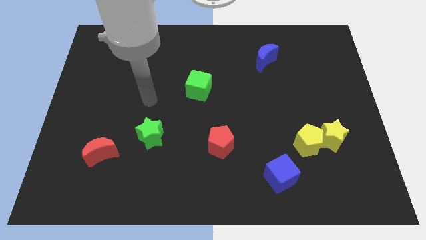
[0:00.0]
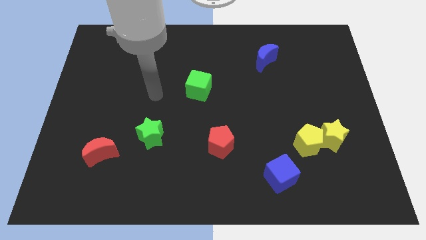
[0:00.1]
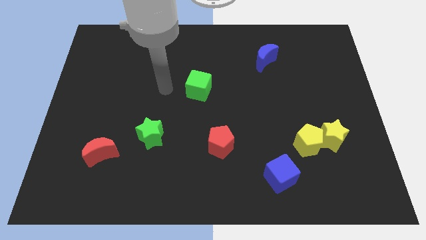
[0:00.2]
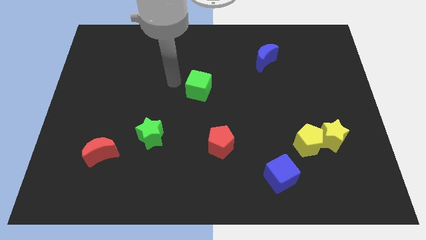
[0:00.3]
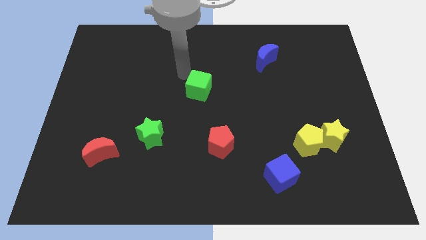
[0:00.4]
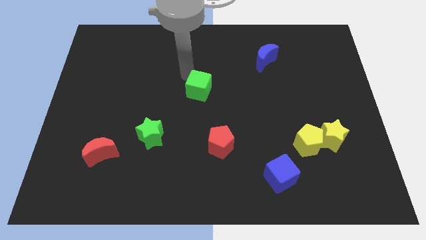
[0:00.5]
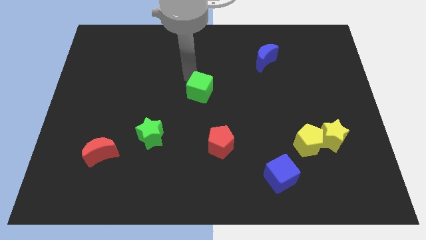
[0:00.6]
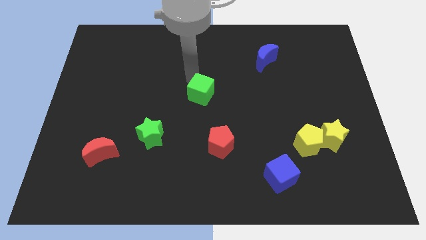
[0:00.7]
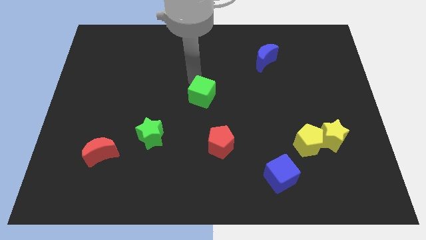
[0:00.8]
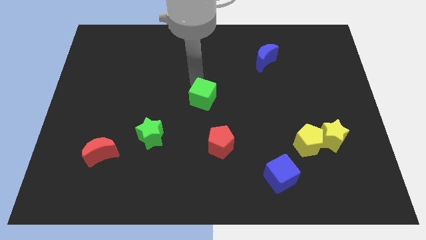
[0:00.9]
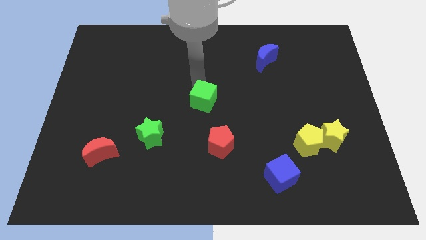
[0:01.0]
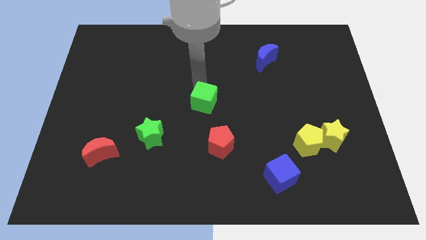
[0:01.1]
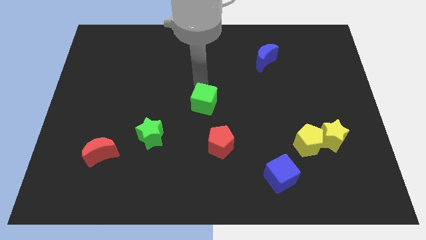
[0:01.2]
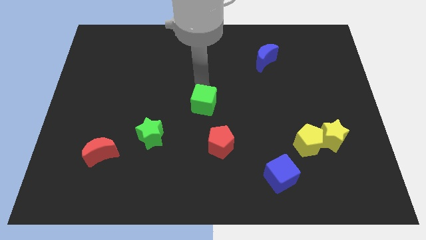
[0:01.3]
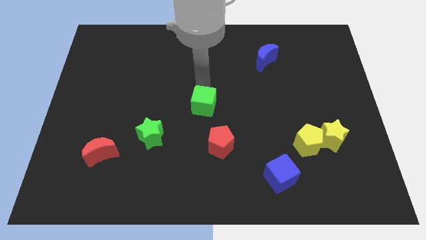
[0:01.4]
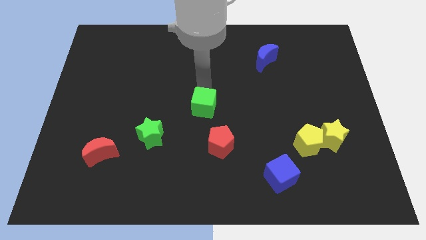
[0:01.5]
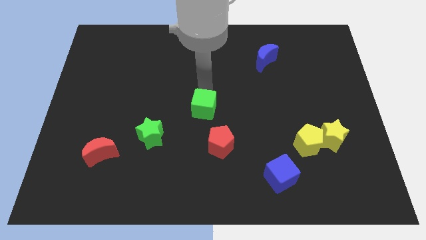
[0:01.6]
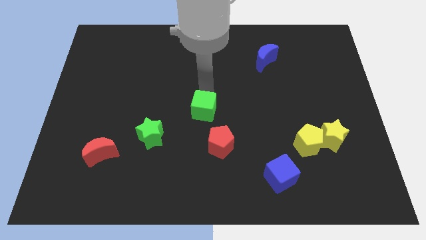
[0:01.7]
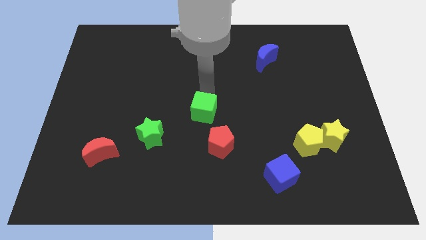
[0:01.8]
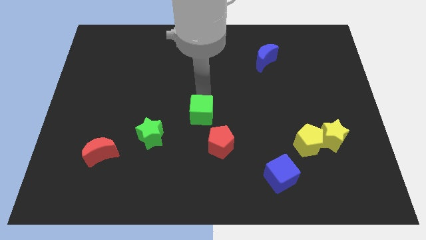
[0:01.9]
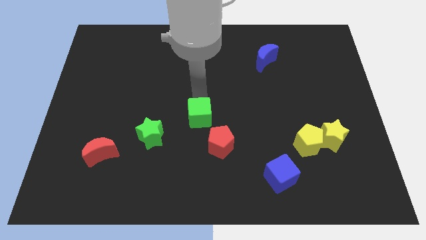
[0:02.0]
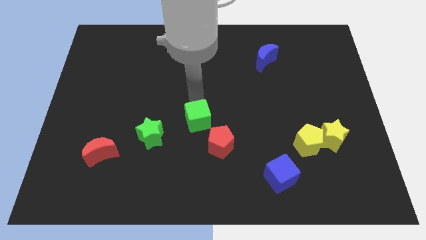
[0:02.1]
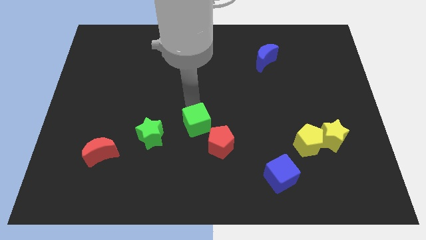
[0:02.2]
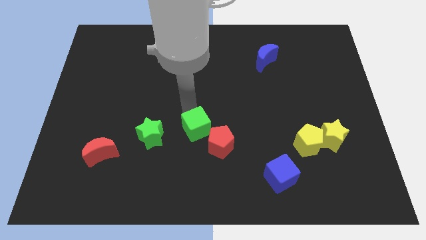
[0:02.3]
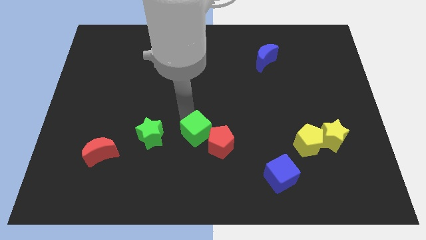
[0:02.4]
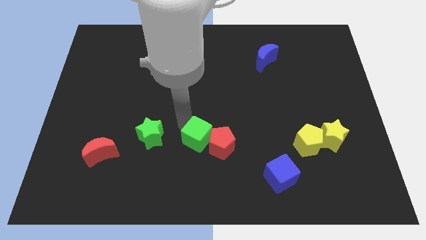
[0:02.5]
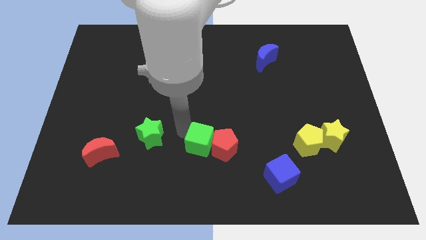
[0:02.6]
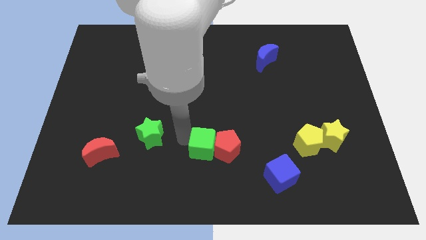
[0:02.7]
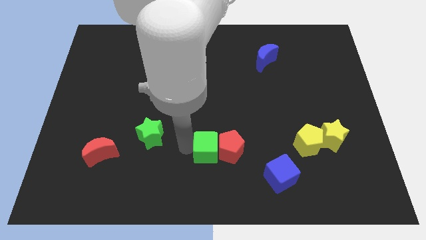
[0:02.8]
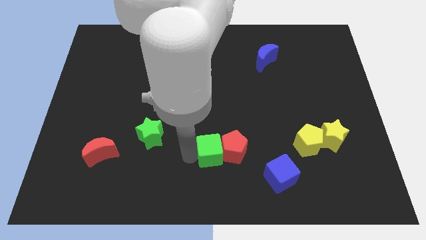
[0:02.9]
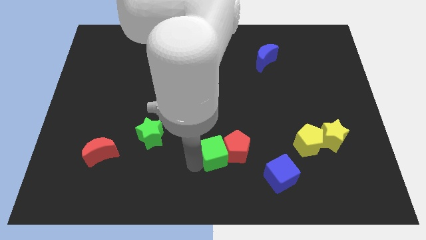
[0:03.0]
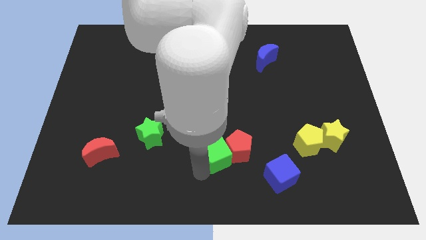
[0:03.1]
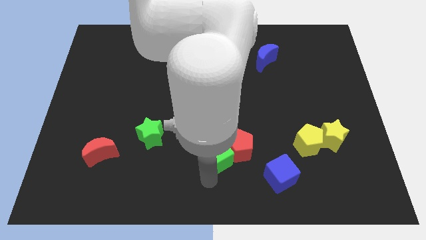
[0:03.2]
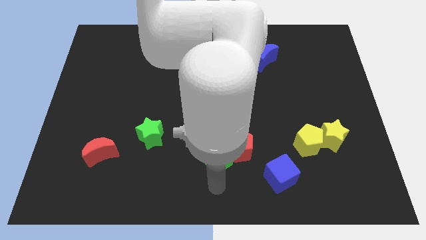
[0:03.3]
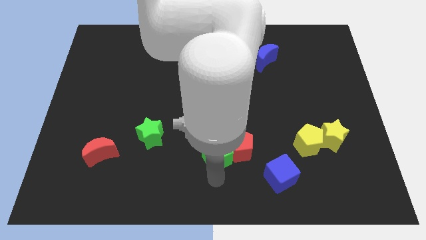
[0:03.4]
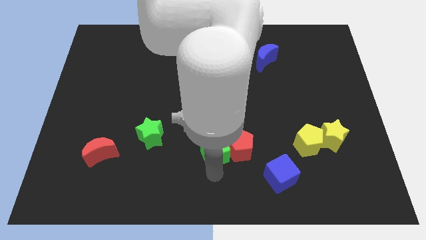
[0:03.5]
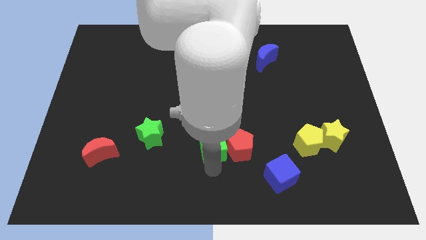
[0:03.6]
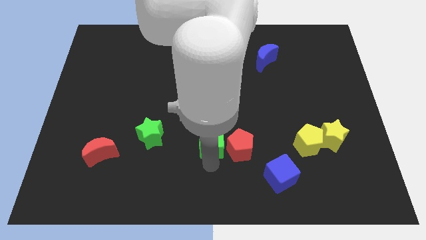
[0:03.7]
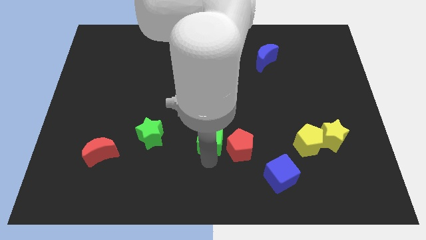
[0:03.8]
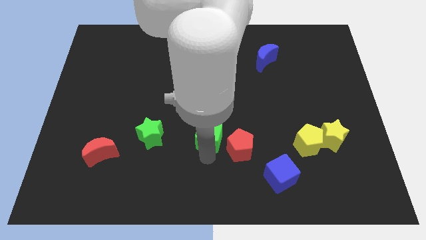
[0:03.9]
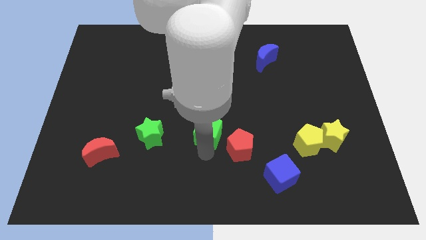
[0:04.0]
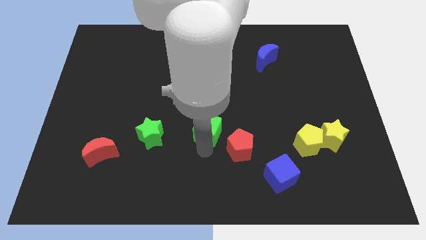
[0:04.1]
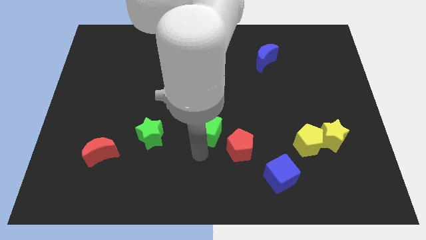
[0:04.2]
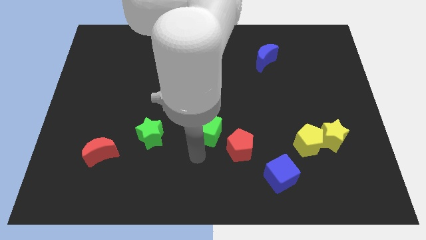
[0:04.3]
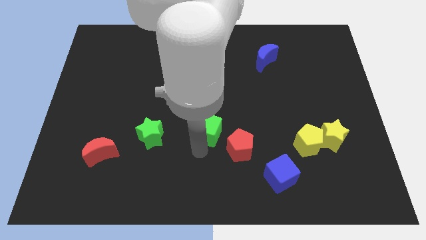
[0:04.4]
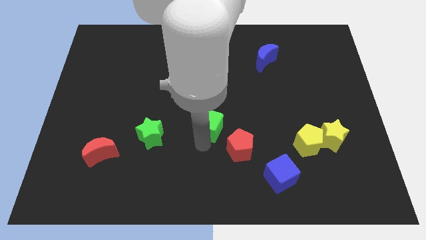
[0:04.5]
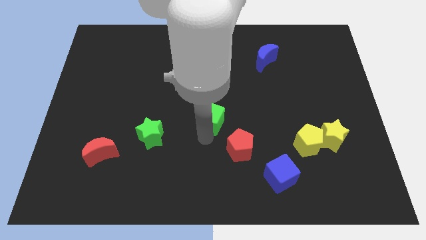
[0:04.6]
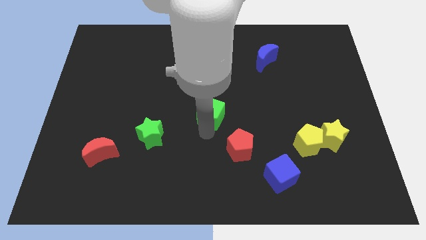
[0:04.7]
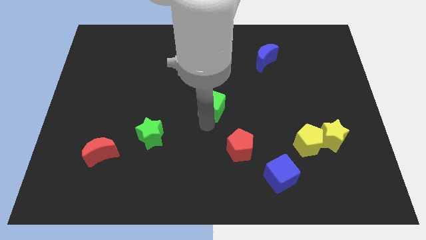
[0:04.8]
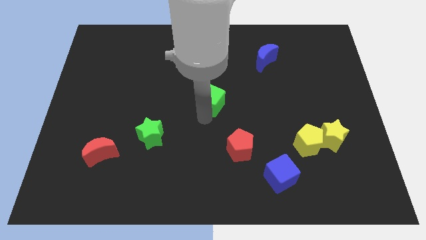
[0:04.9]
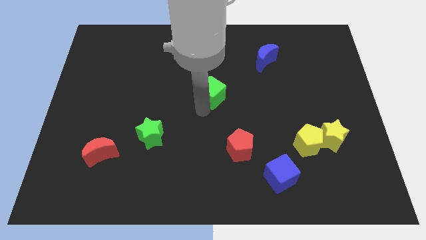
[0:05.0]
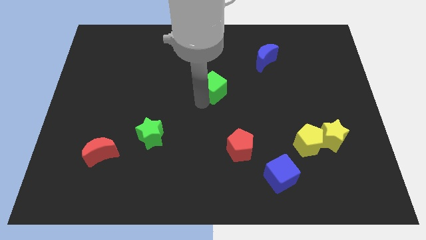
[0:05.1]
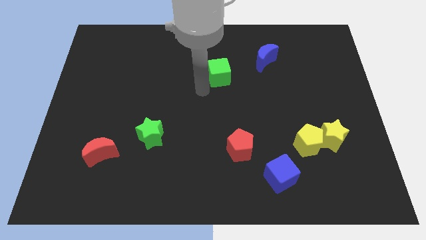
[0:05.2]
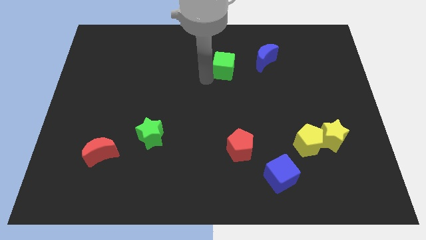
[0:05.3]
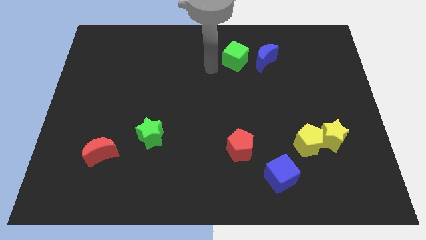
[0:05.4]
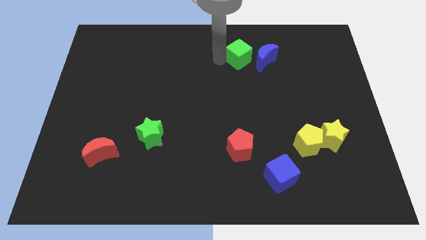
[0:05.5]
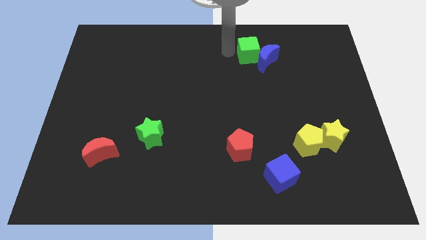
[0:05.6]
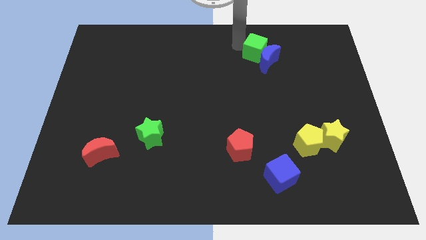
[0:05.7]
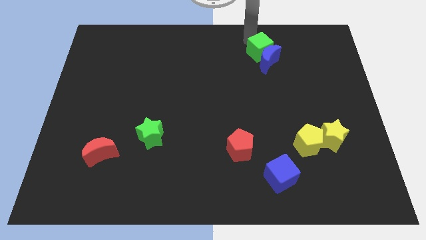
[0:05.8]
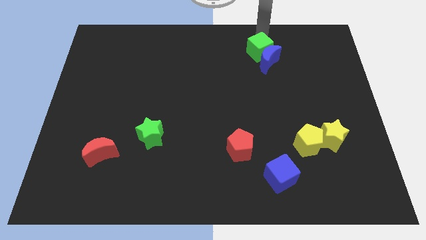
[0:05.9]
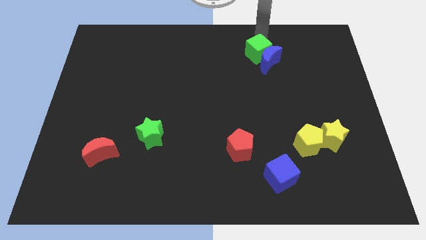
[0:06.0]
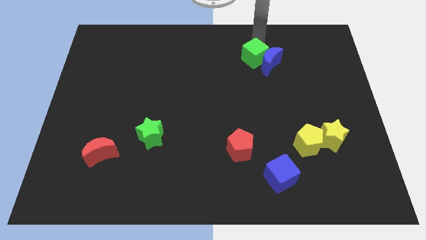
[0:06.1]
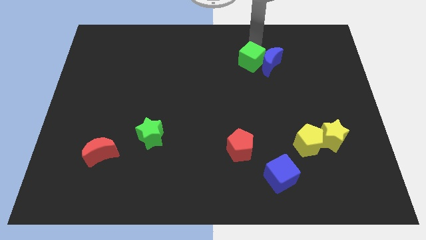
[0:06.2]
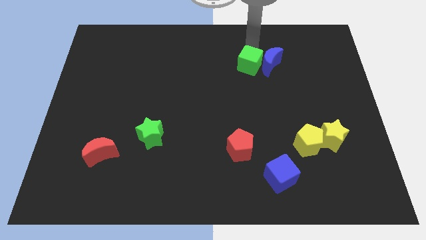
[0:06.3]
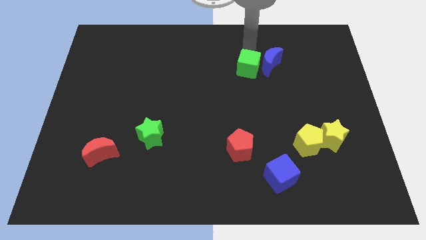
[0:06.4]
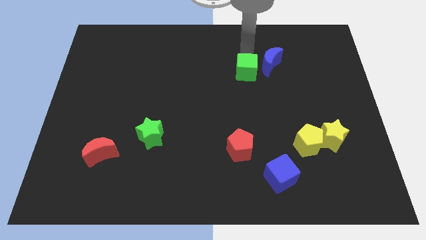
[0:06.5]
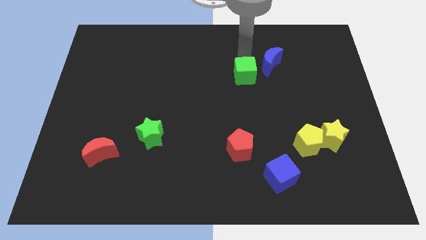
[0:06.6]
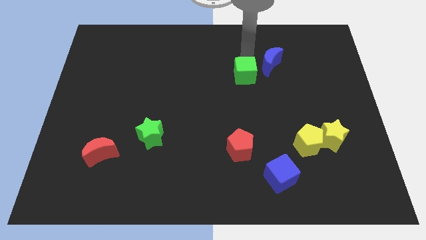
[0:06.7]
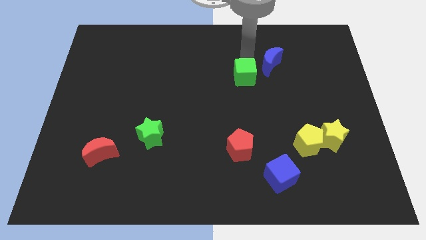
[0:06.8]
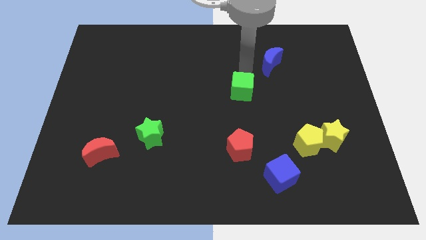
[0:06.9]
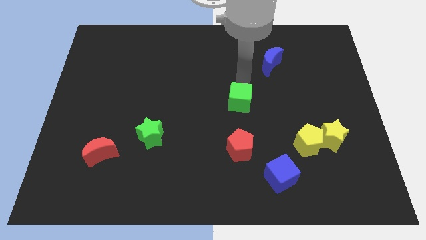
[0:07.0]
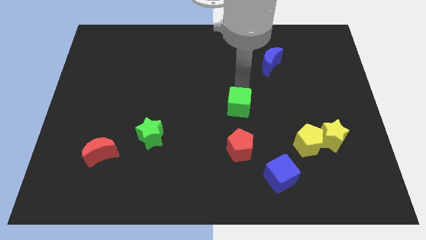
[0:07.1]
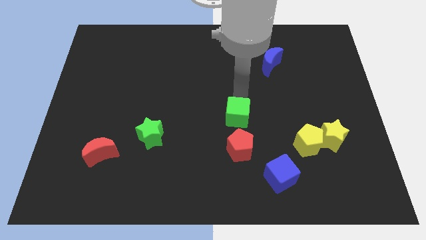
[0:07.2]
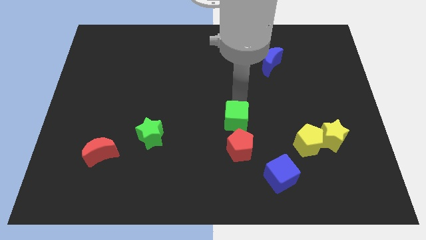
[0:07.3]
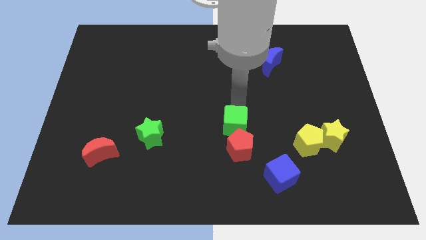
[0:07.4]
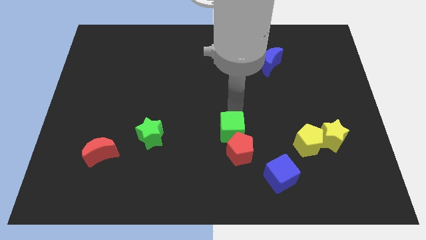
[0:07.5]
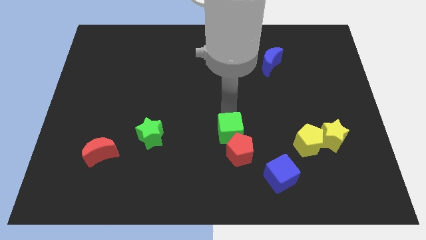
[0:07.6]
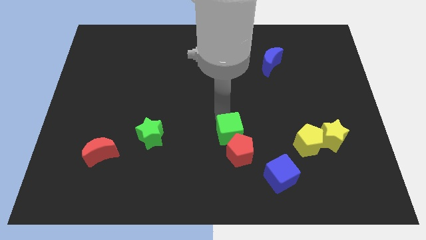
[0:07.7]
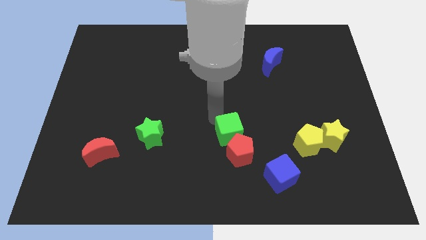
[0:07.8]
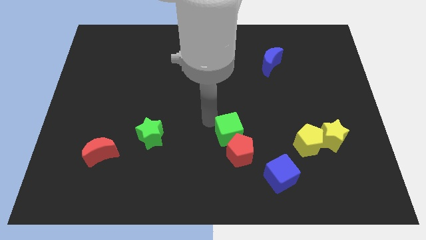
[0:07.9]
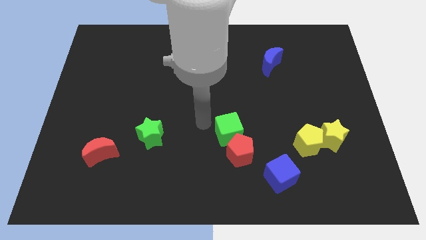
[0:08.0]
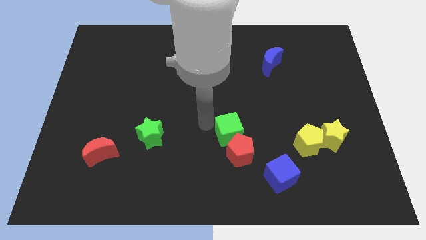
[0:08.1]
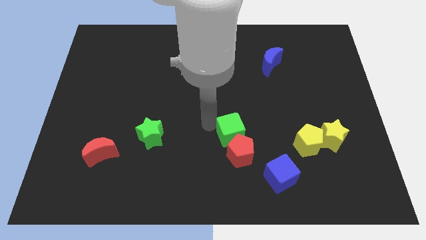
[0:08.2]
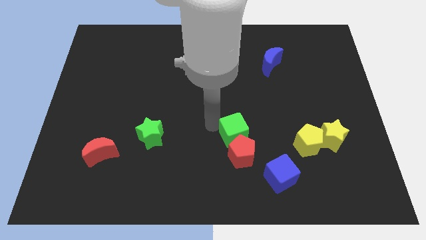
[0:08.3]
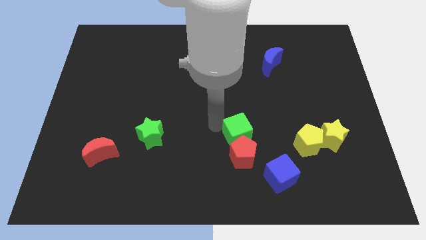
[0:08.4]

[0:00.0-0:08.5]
put the green cube just left of the yellow pentagon
